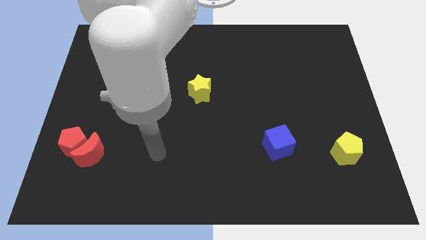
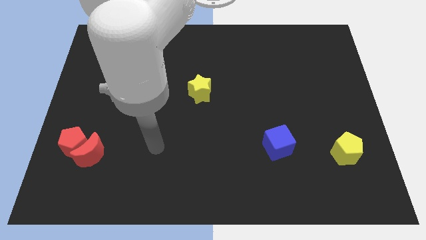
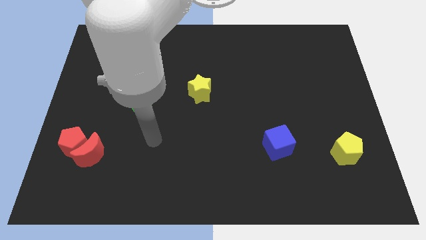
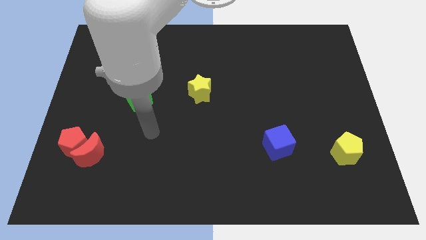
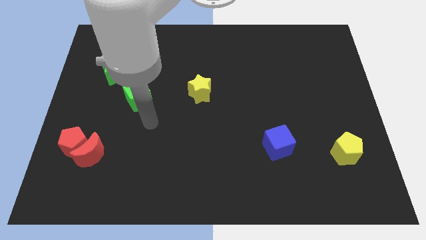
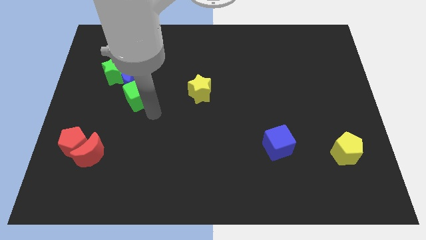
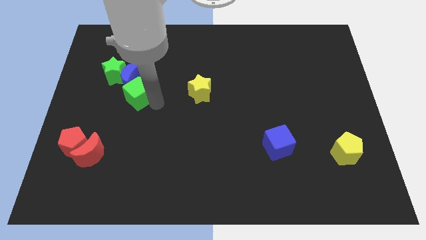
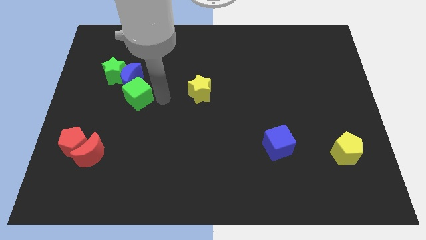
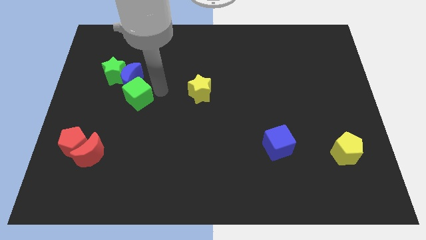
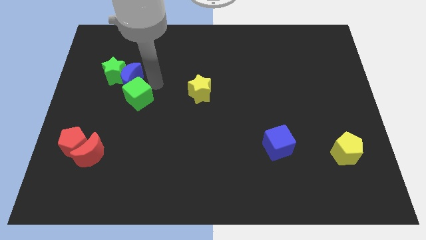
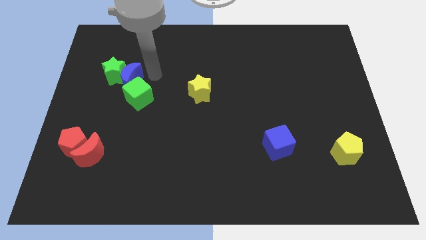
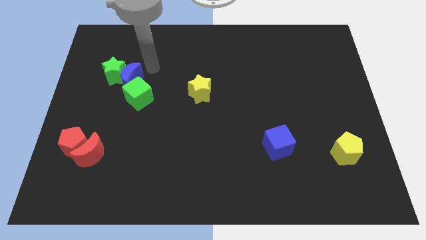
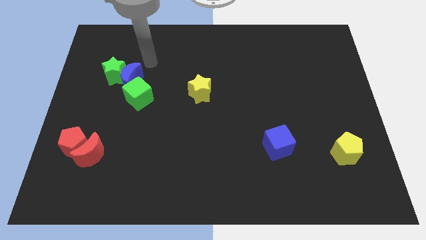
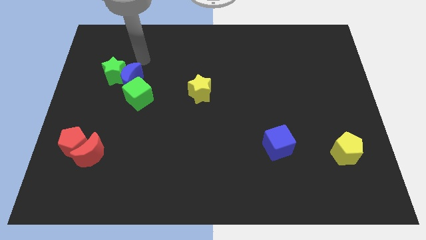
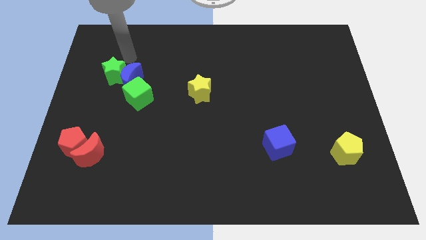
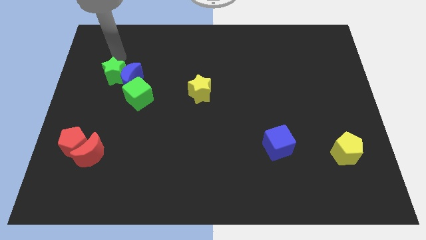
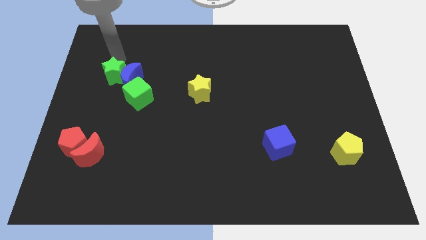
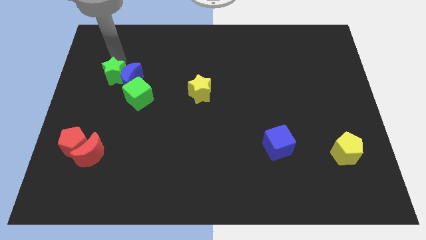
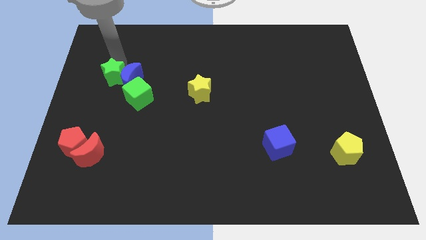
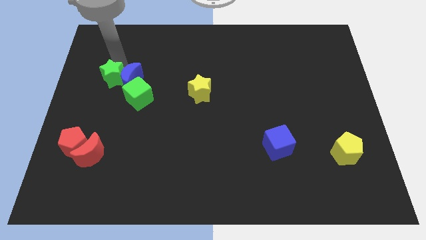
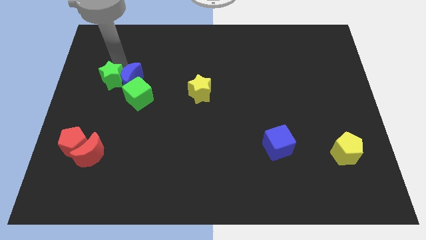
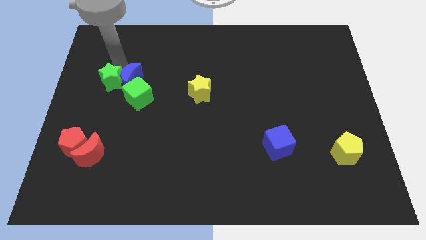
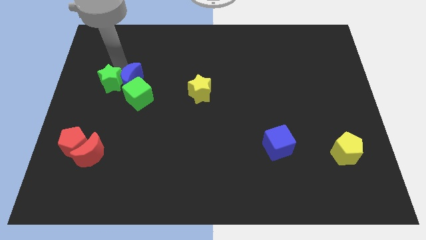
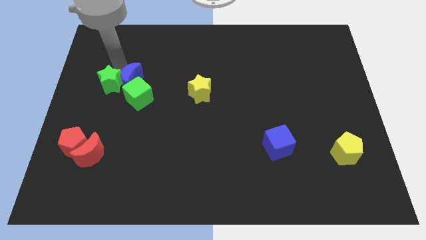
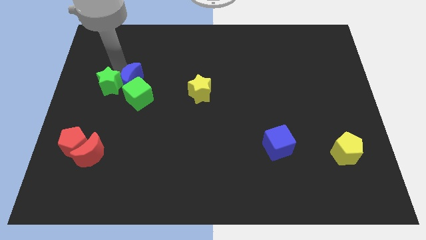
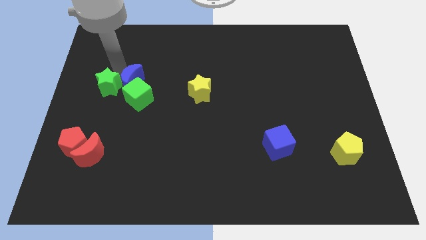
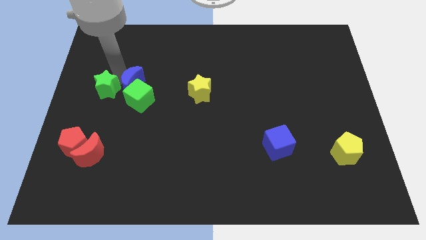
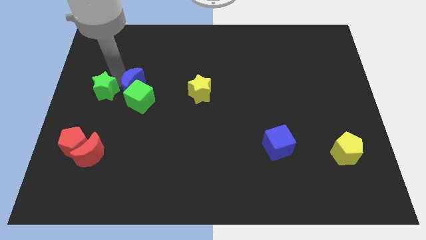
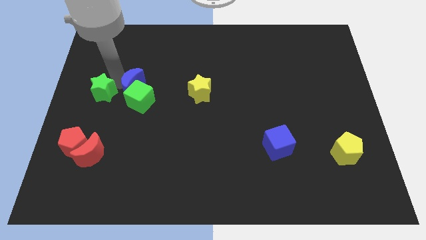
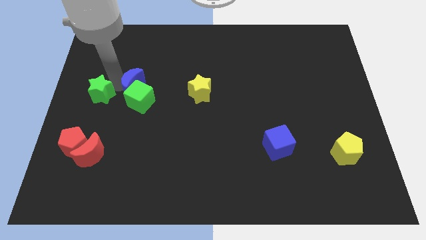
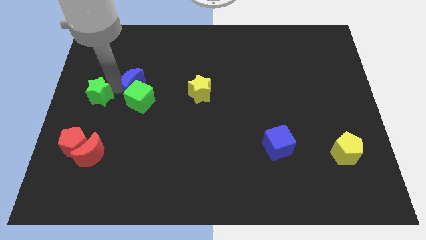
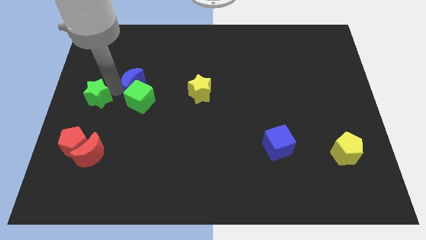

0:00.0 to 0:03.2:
slightly push the green star down

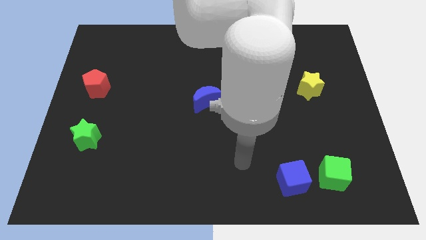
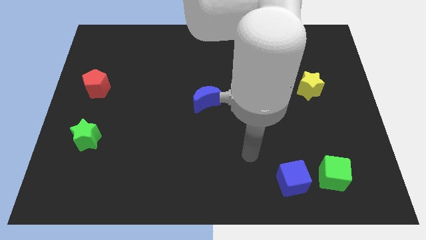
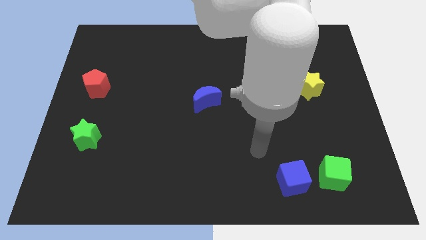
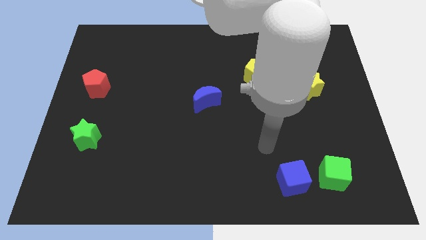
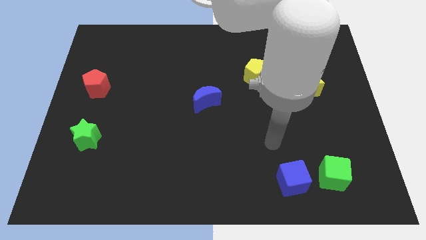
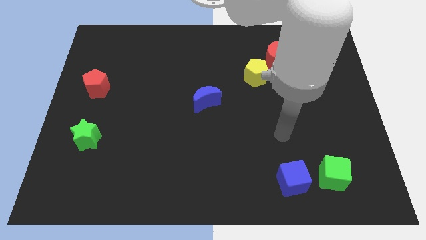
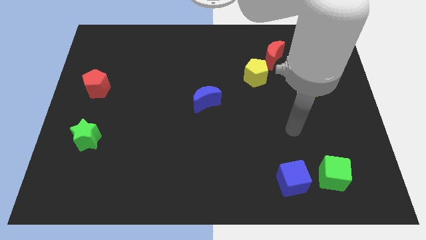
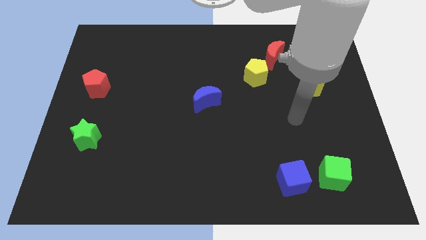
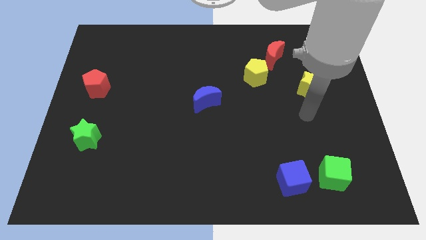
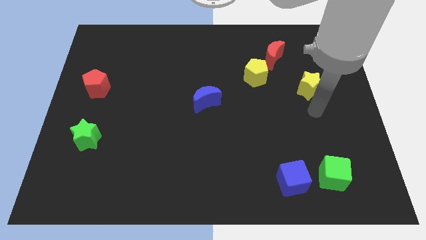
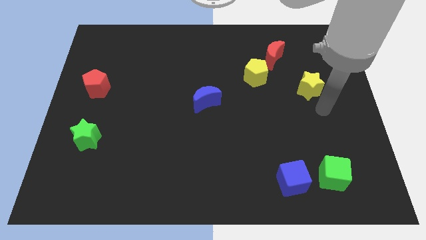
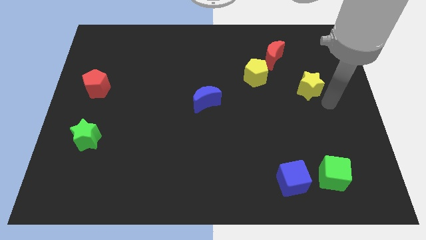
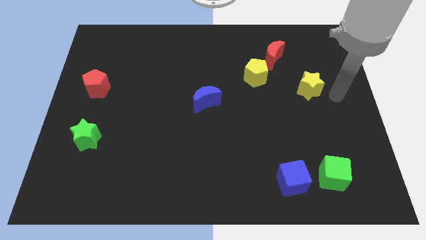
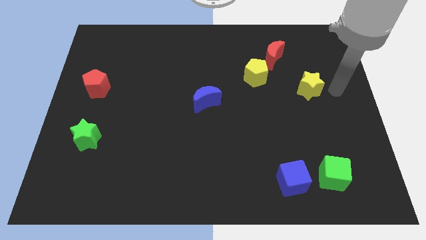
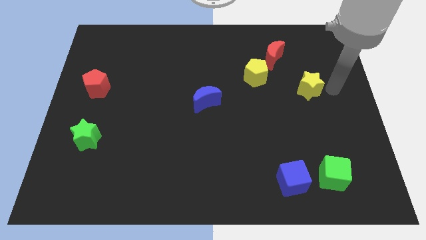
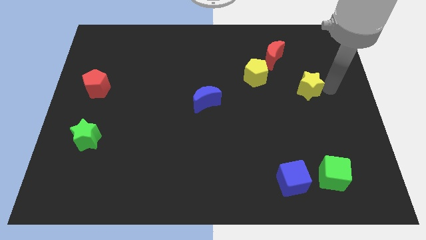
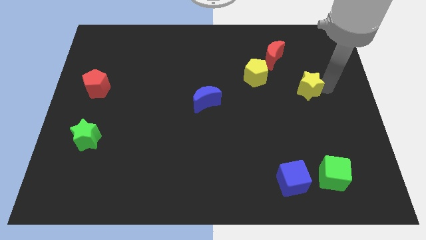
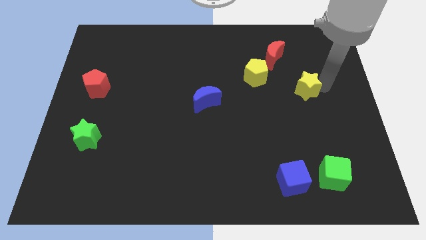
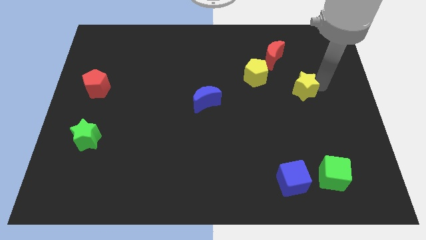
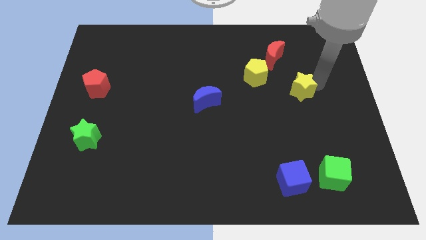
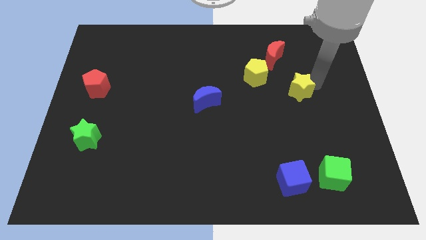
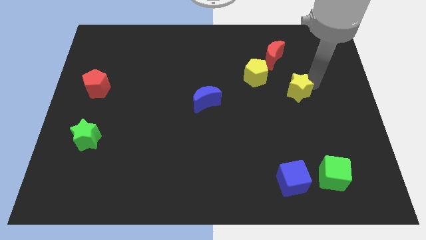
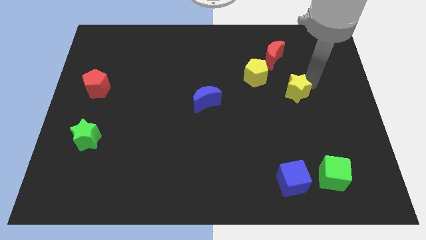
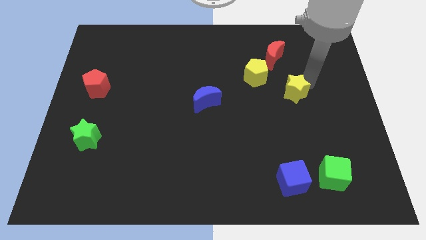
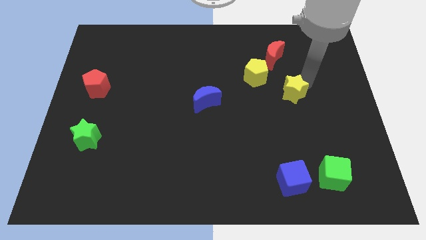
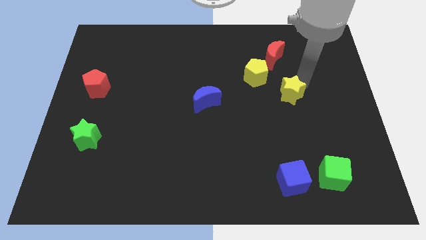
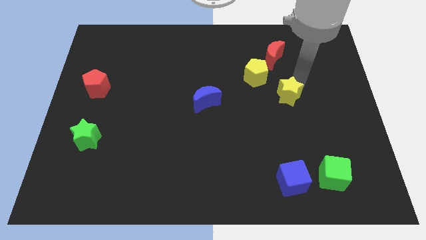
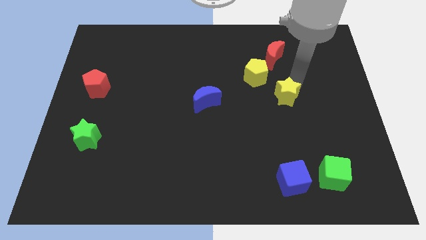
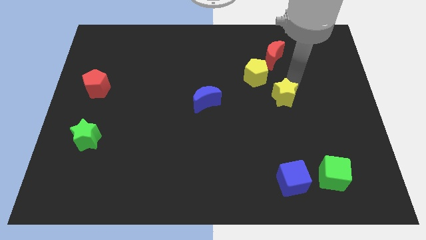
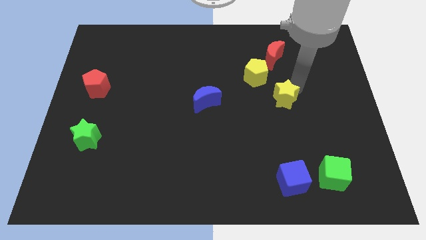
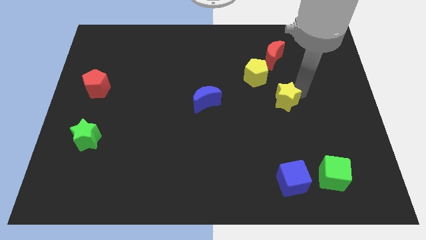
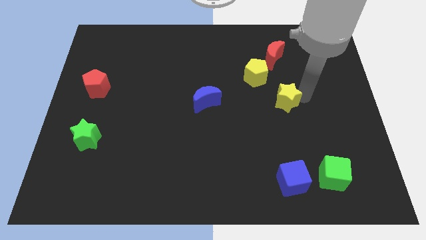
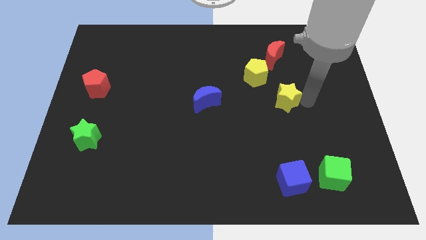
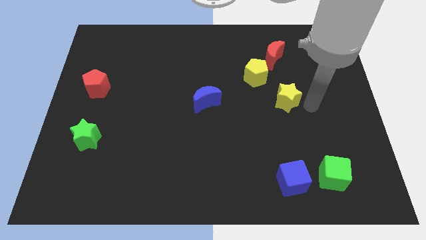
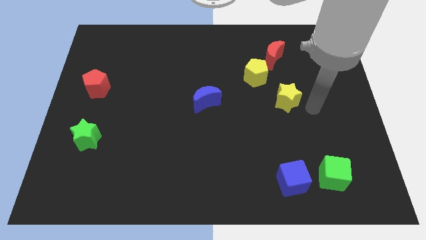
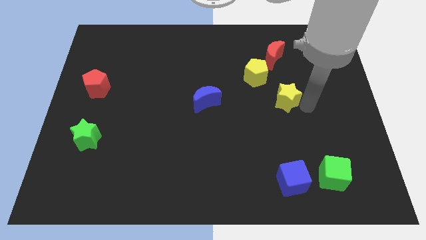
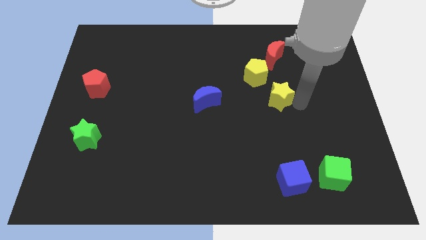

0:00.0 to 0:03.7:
push the yellow star a bit to the left

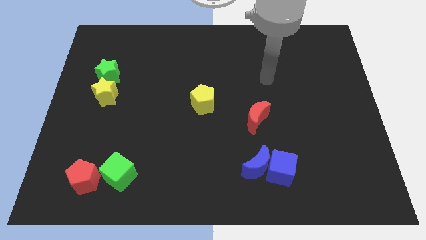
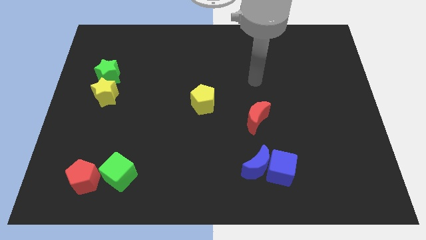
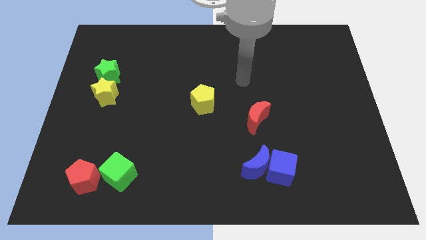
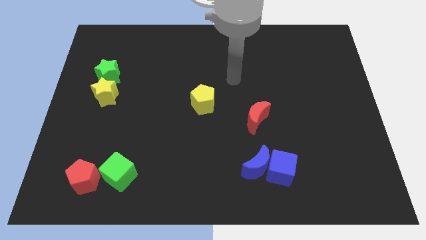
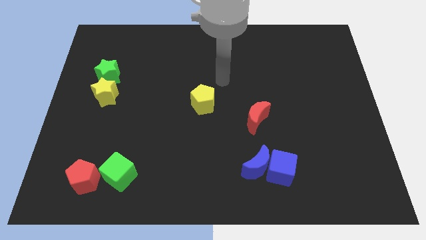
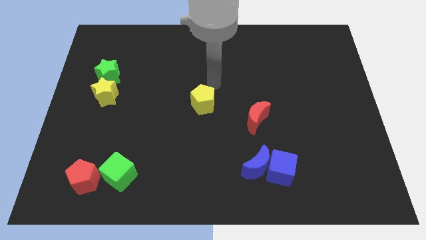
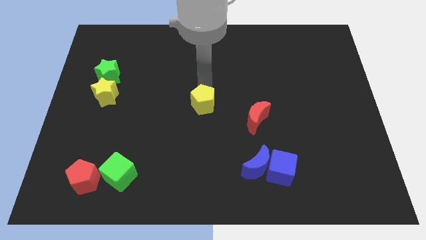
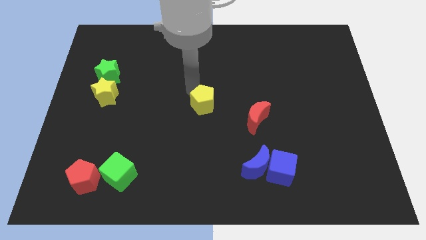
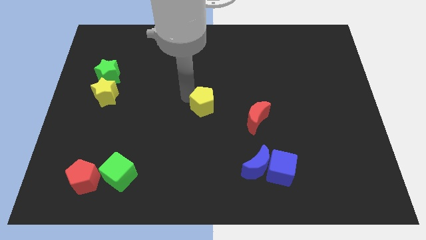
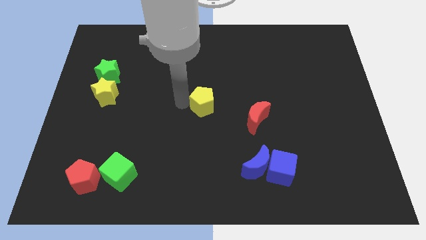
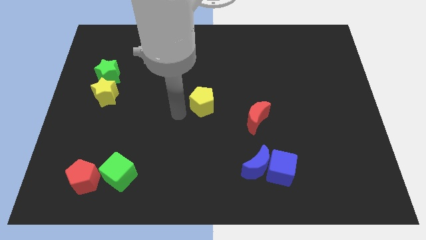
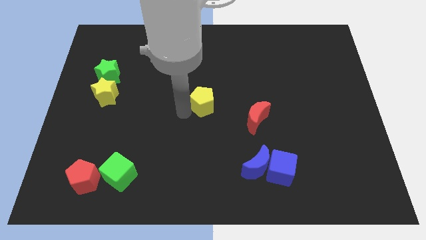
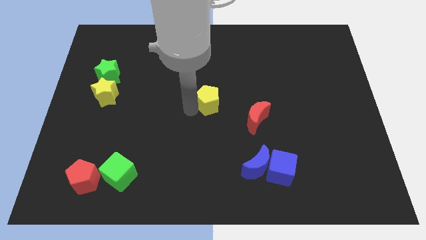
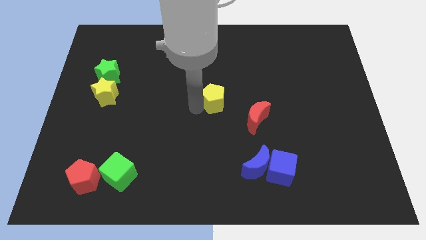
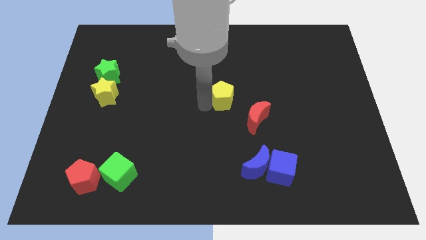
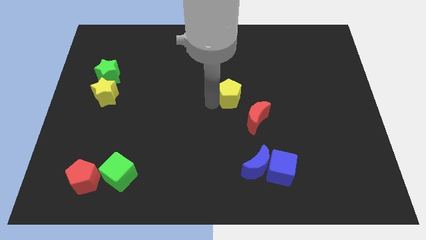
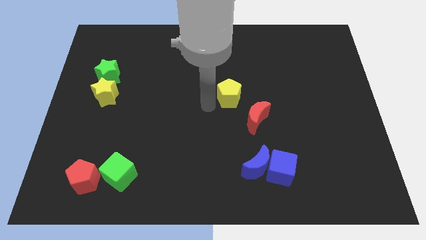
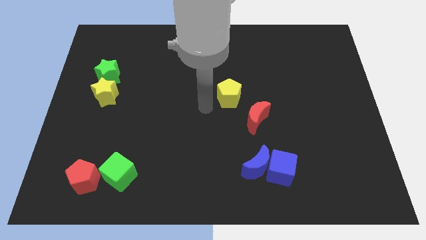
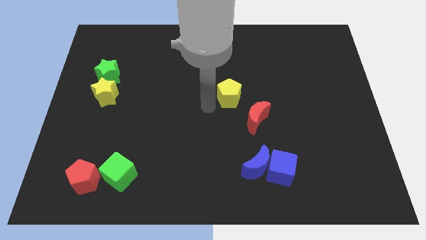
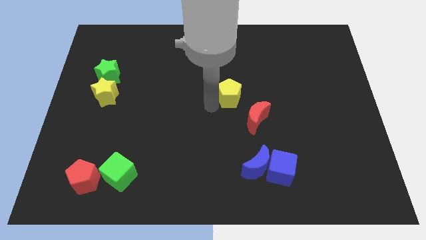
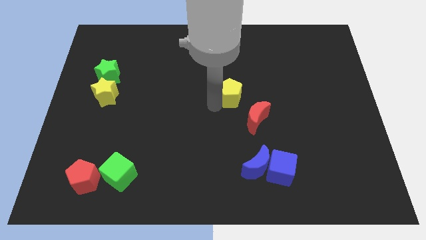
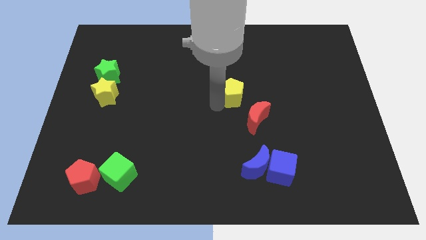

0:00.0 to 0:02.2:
slide the yellow pentagon a bit right
